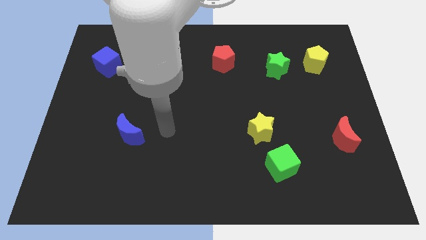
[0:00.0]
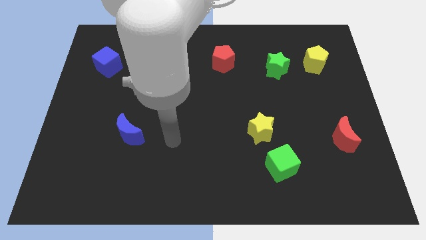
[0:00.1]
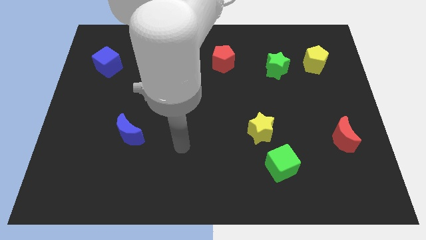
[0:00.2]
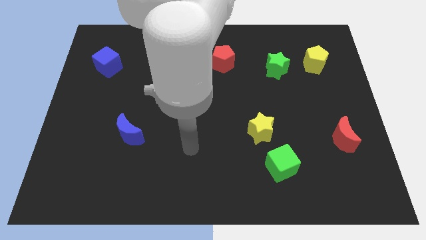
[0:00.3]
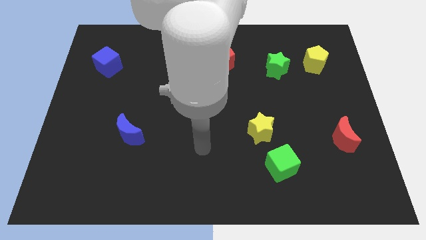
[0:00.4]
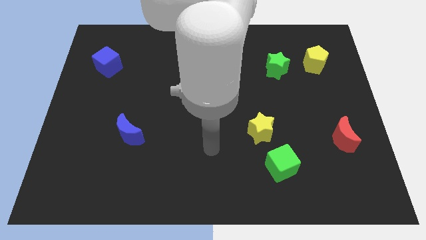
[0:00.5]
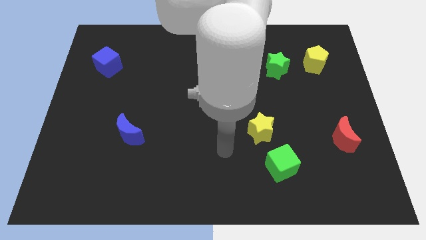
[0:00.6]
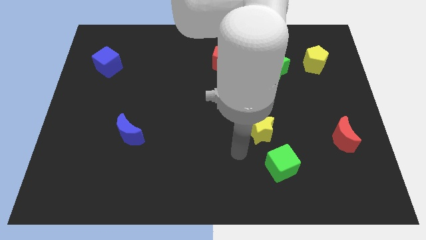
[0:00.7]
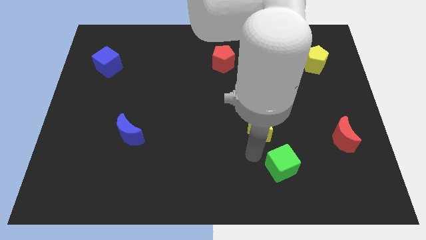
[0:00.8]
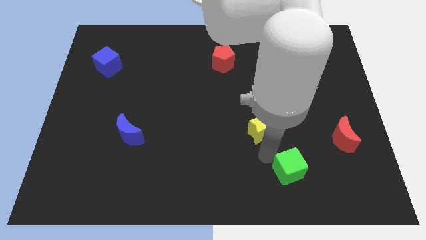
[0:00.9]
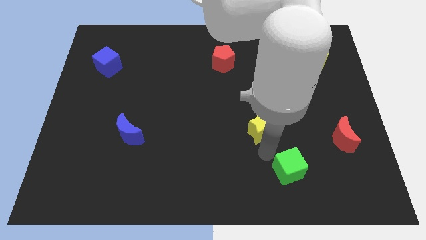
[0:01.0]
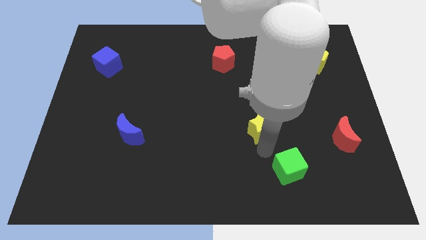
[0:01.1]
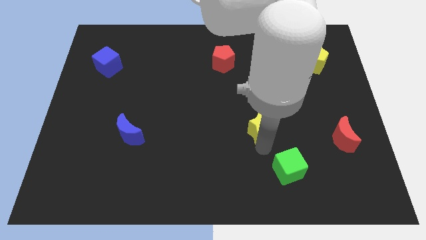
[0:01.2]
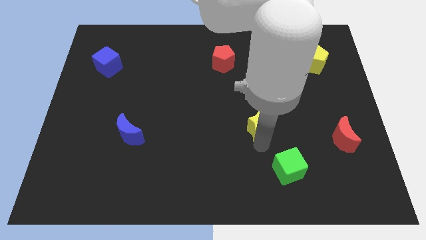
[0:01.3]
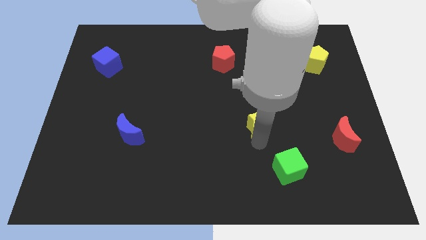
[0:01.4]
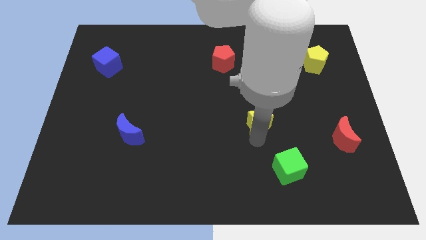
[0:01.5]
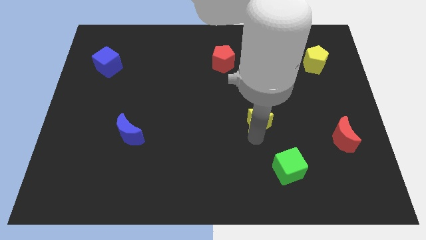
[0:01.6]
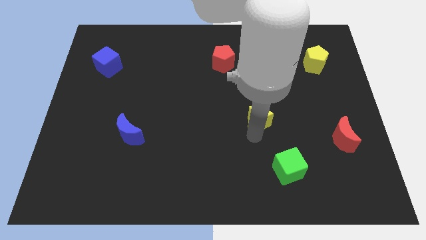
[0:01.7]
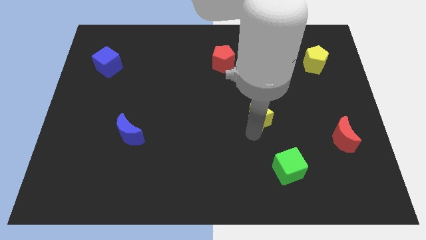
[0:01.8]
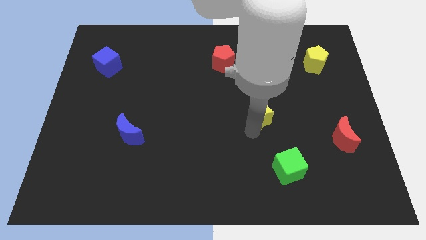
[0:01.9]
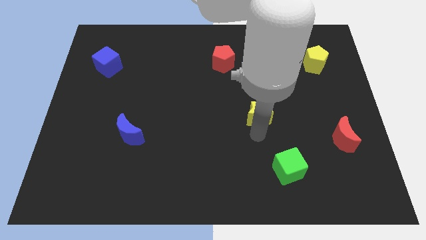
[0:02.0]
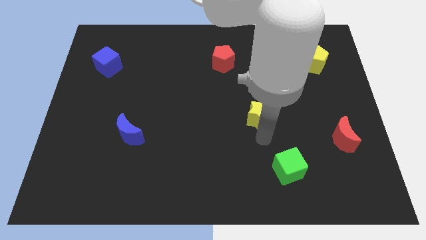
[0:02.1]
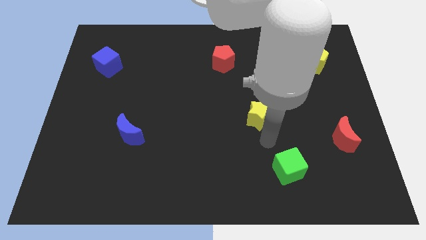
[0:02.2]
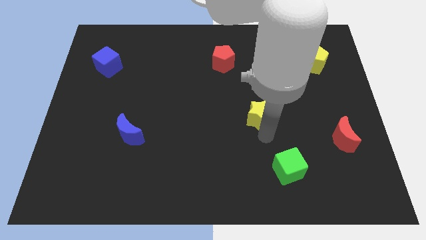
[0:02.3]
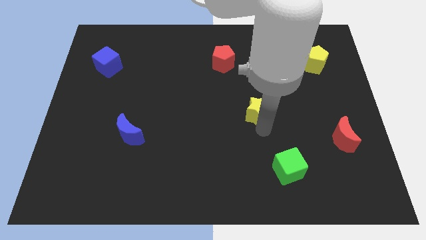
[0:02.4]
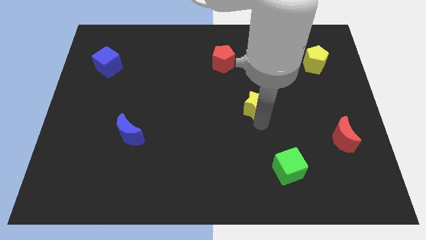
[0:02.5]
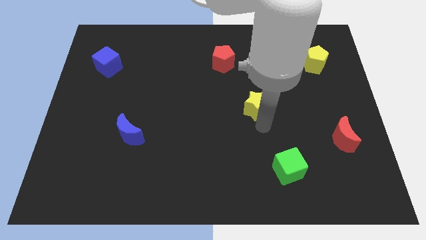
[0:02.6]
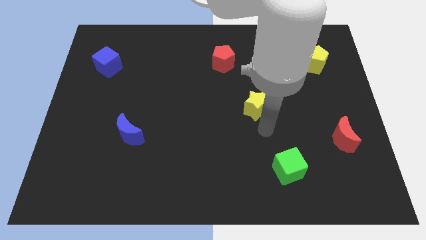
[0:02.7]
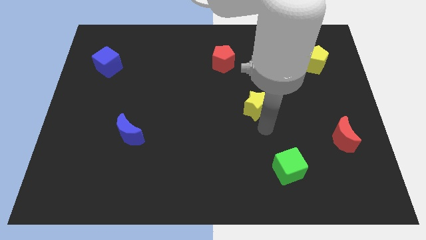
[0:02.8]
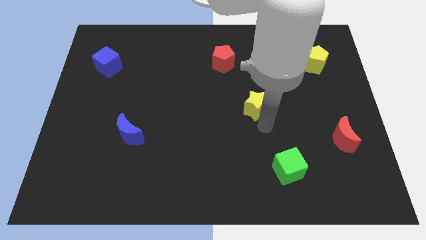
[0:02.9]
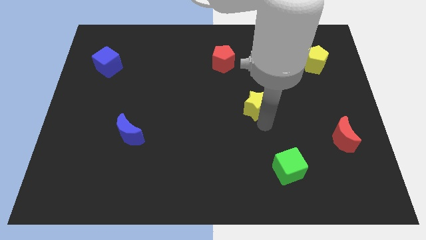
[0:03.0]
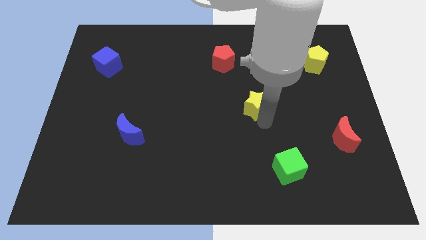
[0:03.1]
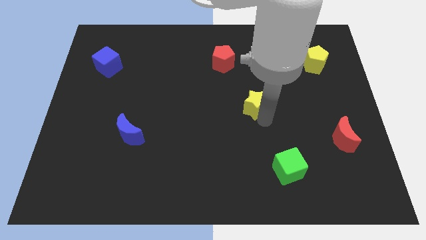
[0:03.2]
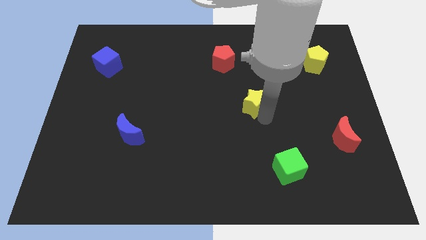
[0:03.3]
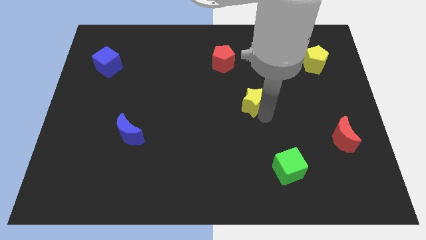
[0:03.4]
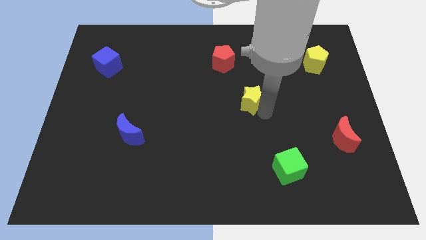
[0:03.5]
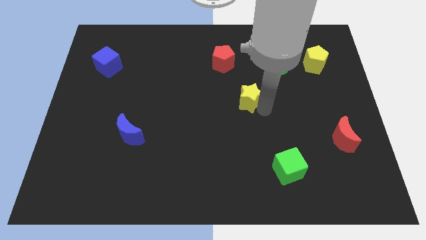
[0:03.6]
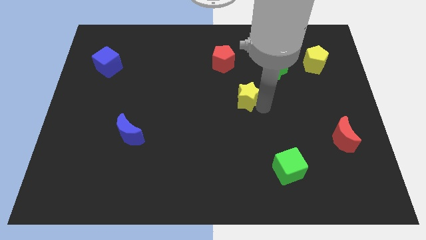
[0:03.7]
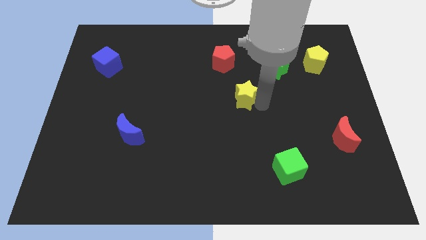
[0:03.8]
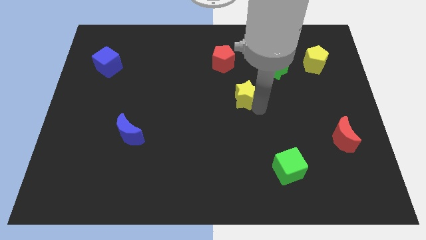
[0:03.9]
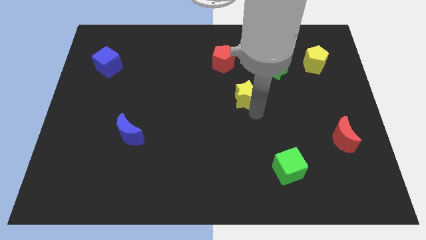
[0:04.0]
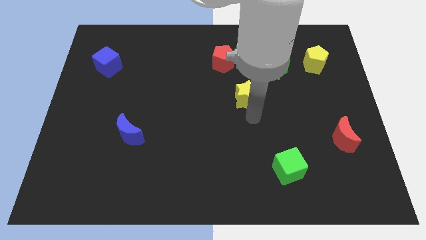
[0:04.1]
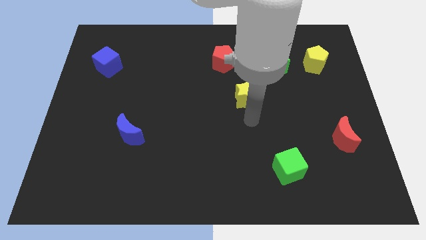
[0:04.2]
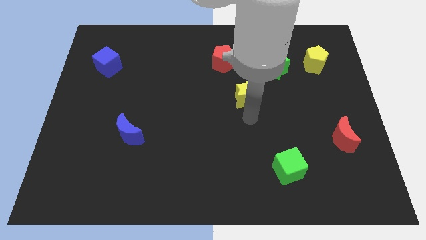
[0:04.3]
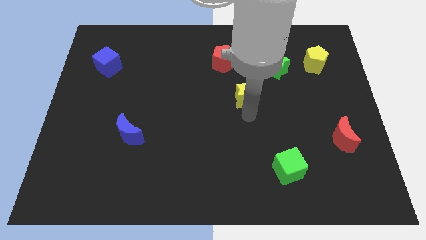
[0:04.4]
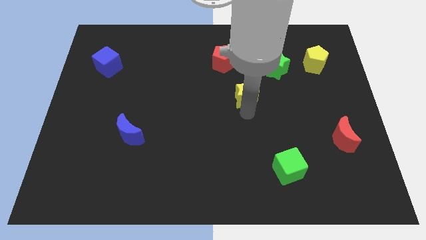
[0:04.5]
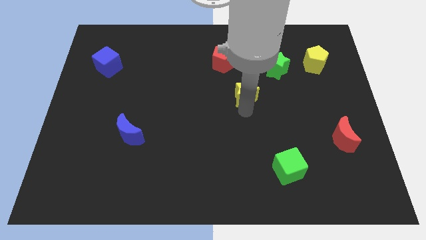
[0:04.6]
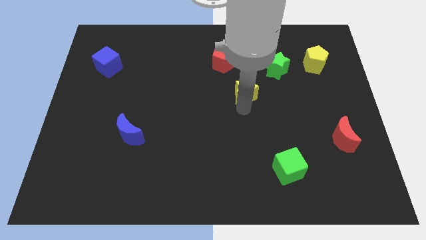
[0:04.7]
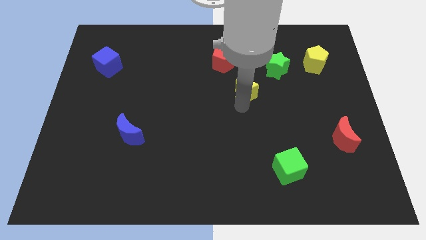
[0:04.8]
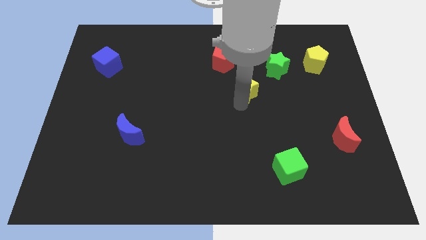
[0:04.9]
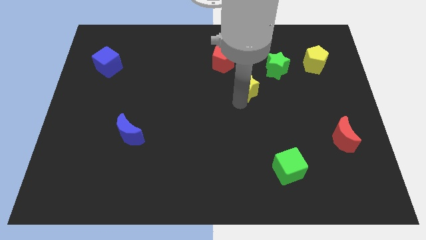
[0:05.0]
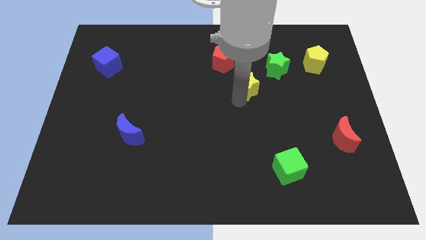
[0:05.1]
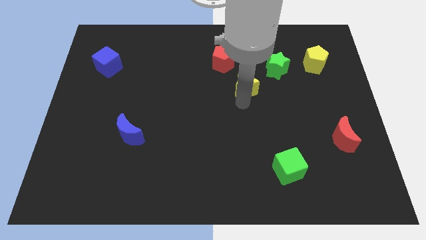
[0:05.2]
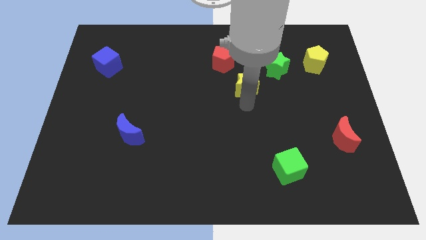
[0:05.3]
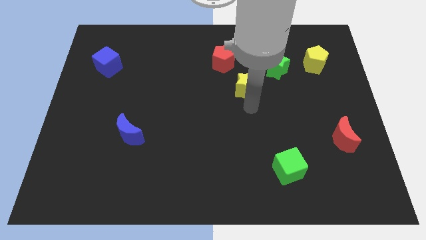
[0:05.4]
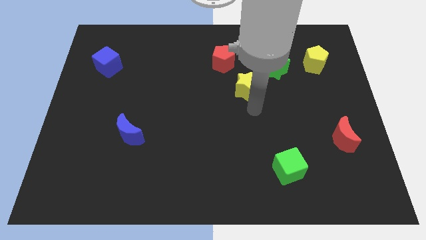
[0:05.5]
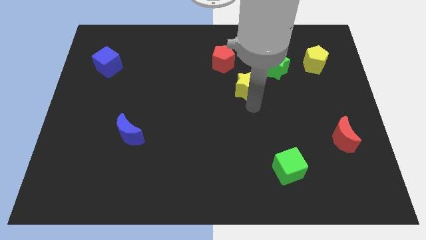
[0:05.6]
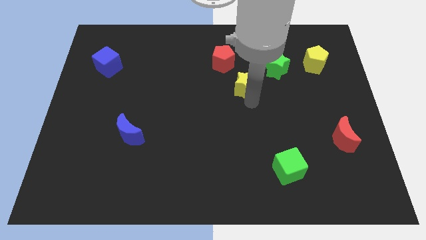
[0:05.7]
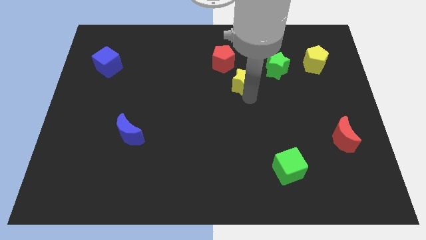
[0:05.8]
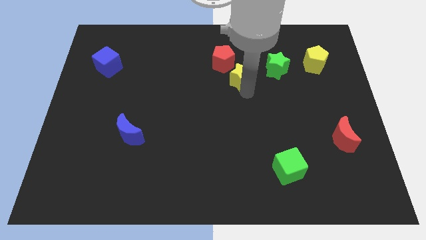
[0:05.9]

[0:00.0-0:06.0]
move the yellow star to the left of the green star
